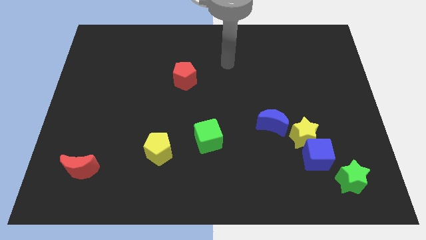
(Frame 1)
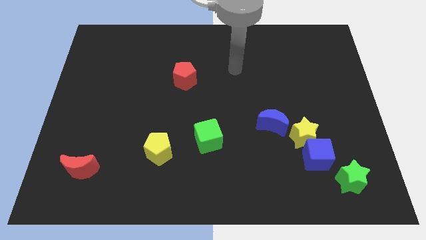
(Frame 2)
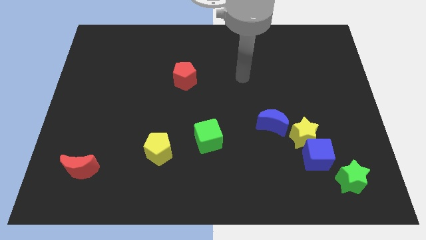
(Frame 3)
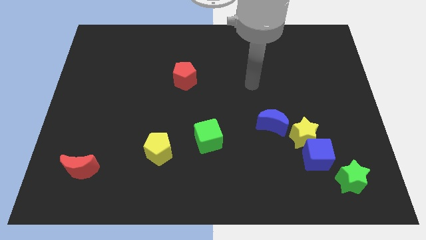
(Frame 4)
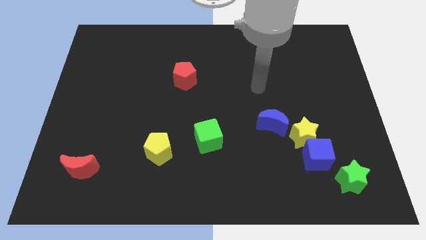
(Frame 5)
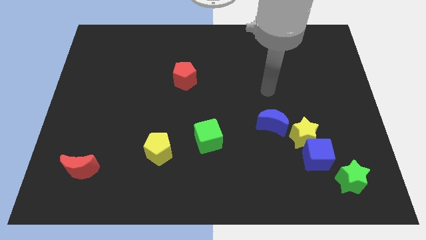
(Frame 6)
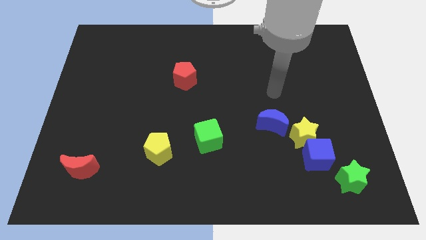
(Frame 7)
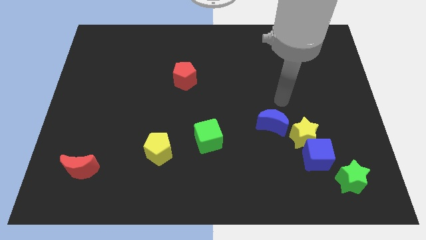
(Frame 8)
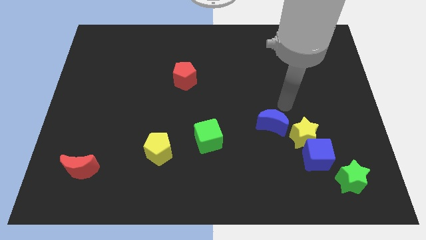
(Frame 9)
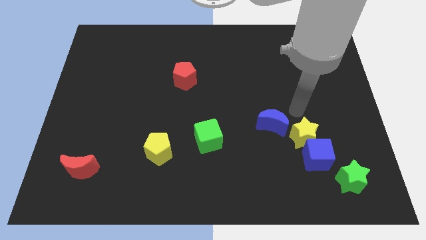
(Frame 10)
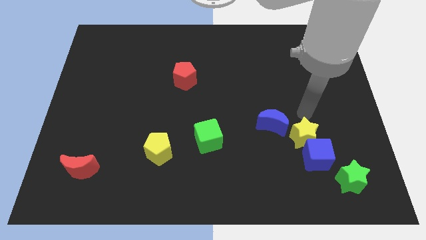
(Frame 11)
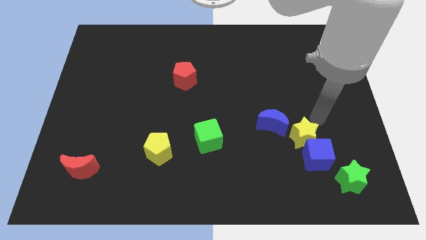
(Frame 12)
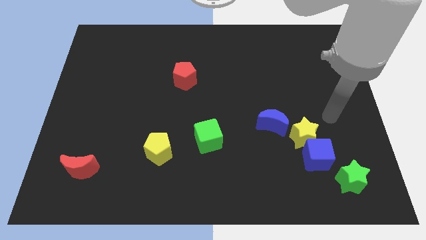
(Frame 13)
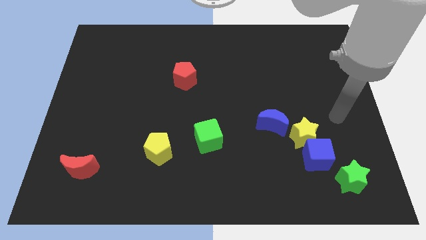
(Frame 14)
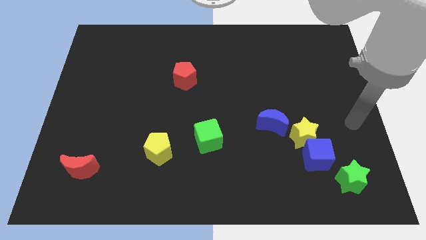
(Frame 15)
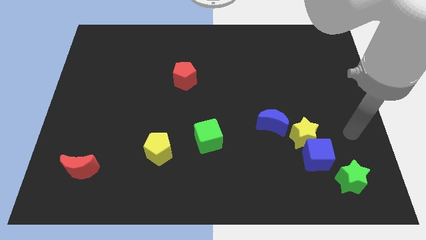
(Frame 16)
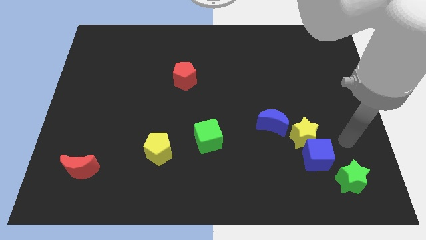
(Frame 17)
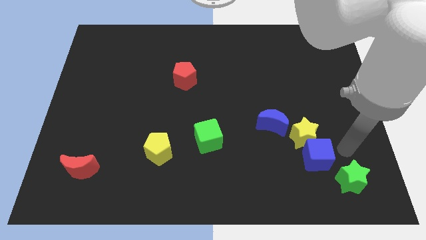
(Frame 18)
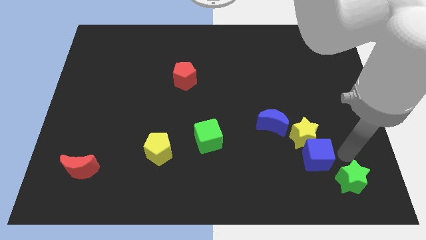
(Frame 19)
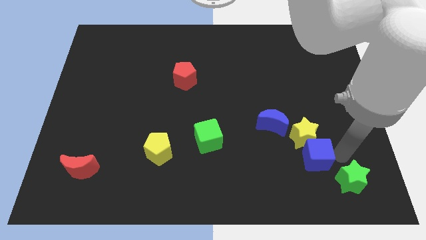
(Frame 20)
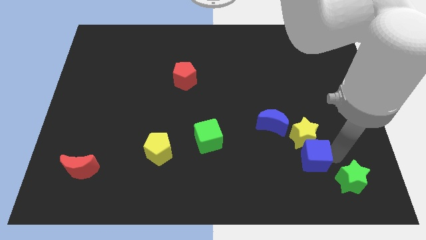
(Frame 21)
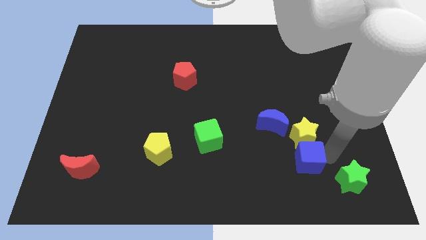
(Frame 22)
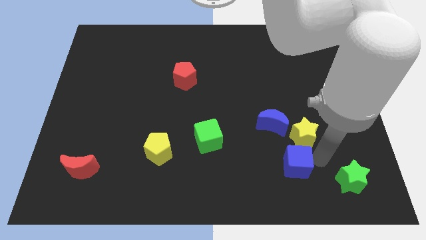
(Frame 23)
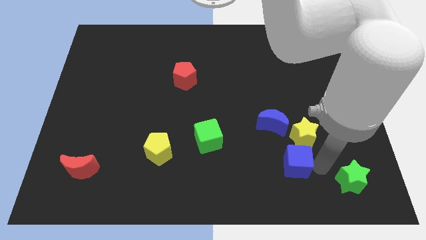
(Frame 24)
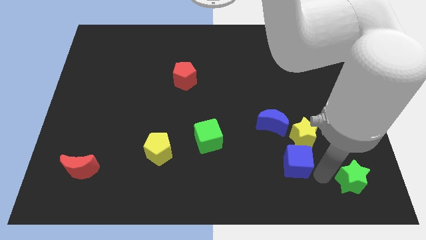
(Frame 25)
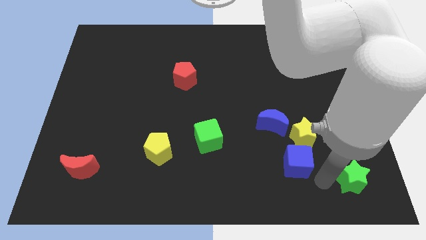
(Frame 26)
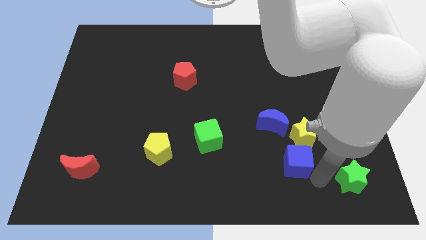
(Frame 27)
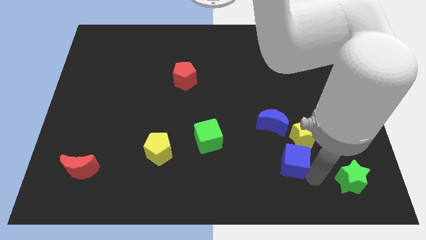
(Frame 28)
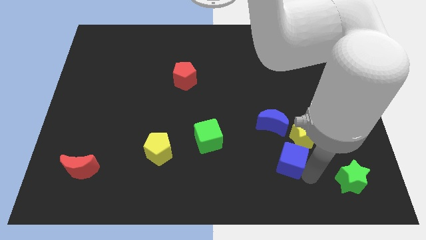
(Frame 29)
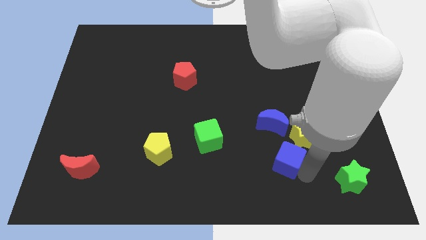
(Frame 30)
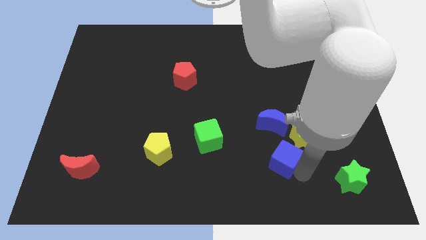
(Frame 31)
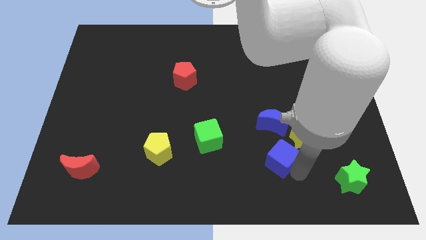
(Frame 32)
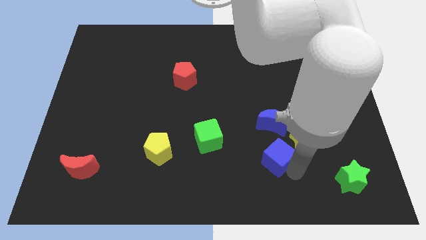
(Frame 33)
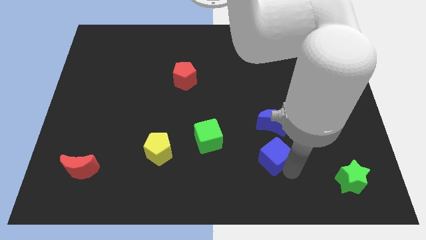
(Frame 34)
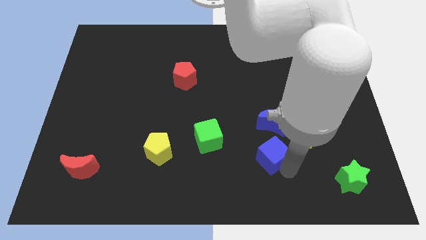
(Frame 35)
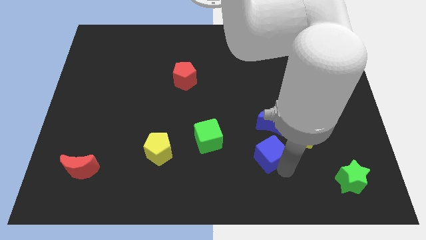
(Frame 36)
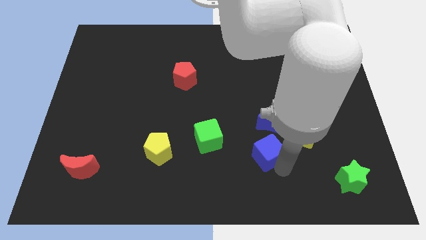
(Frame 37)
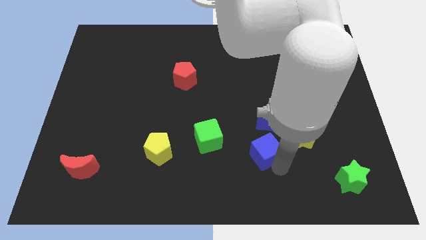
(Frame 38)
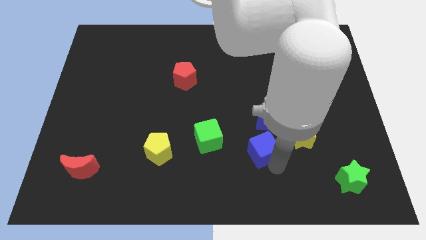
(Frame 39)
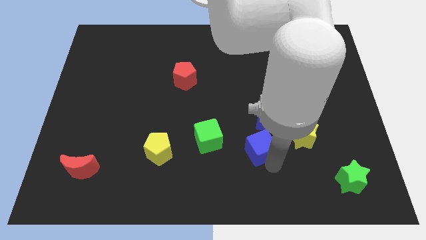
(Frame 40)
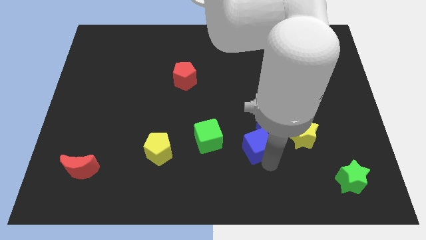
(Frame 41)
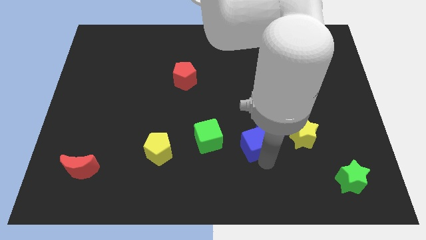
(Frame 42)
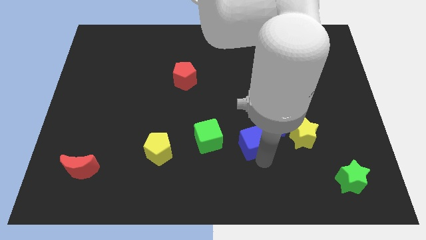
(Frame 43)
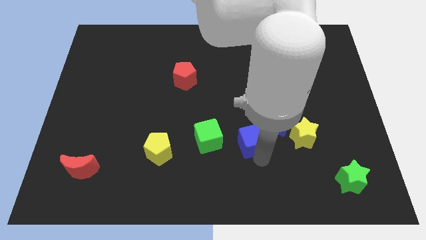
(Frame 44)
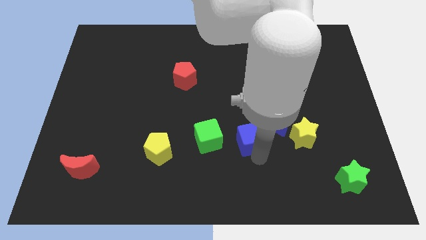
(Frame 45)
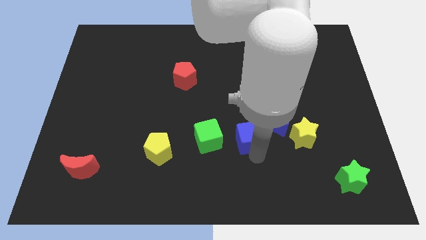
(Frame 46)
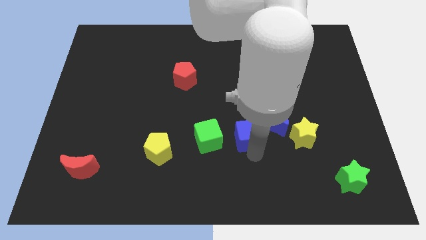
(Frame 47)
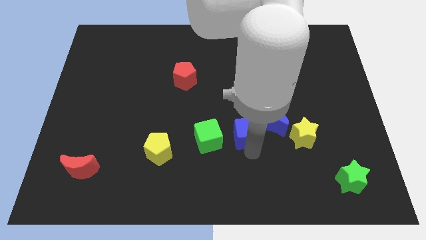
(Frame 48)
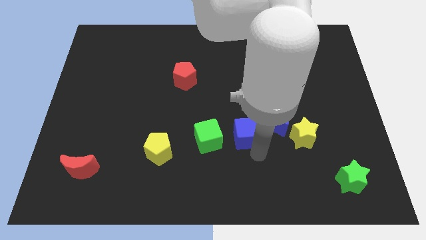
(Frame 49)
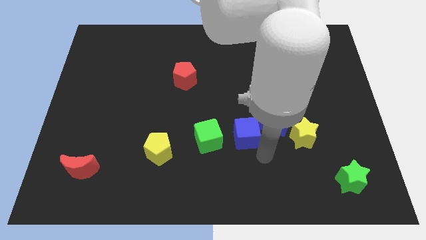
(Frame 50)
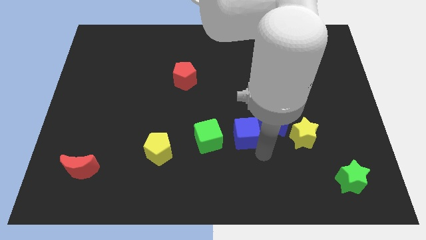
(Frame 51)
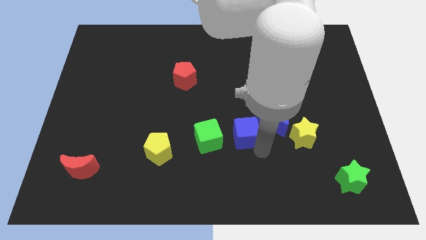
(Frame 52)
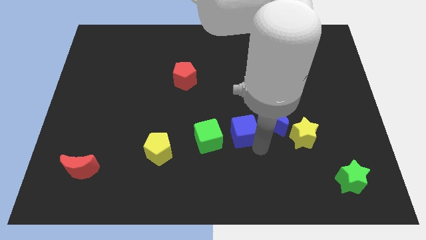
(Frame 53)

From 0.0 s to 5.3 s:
put the blue cube diagonally up and to the right of the green cube

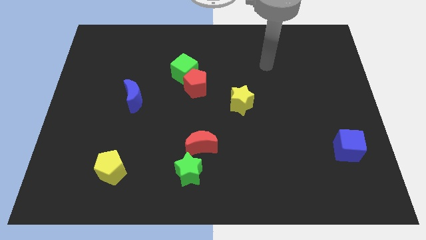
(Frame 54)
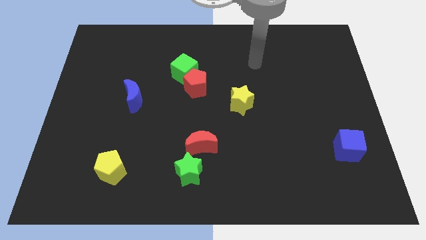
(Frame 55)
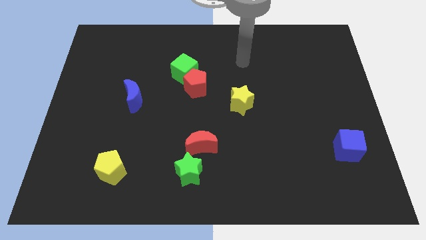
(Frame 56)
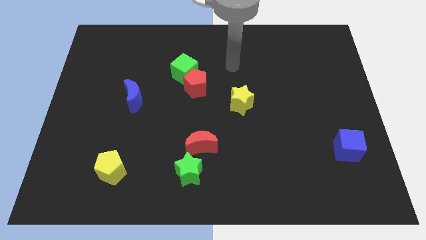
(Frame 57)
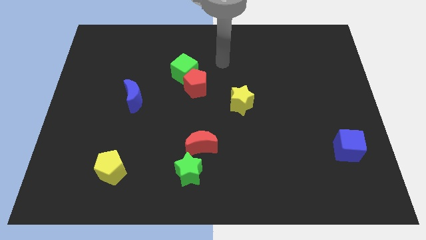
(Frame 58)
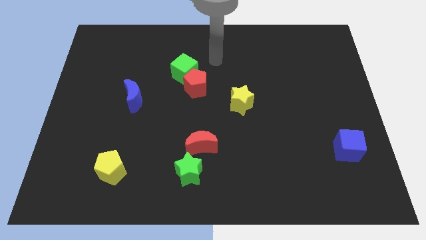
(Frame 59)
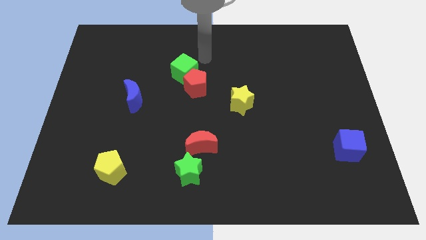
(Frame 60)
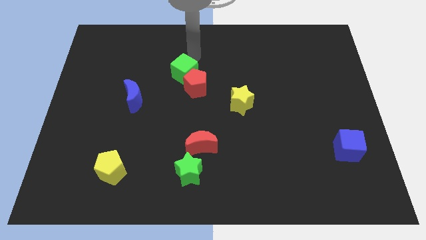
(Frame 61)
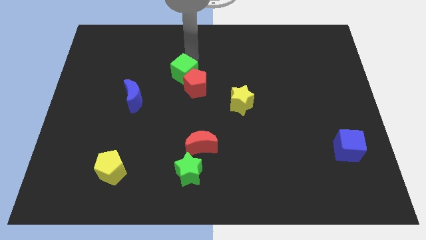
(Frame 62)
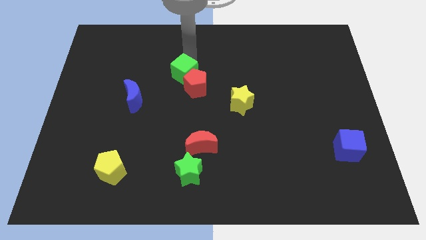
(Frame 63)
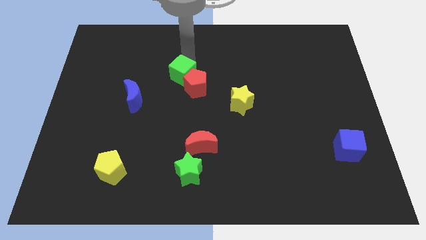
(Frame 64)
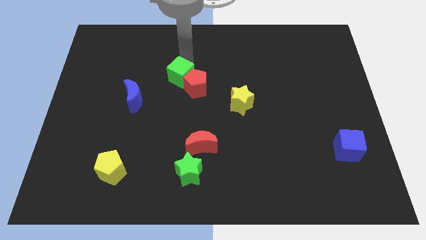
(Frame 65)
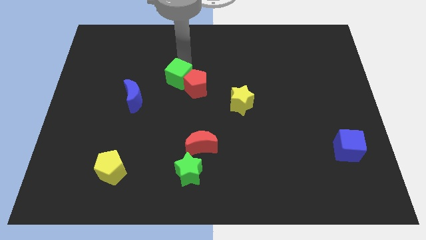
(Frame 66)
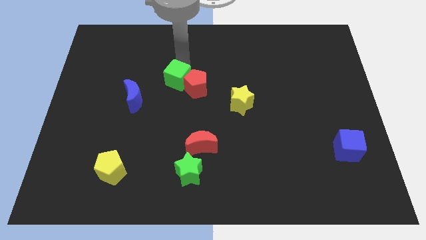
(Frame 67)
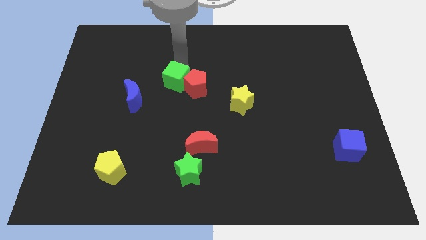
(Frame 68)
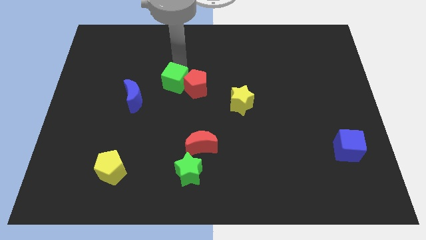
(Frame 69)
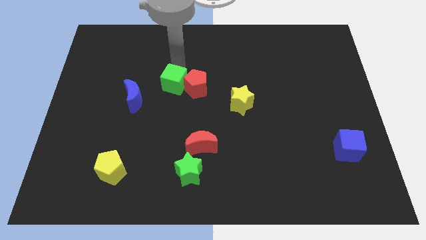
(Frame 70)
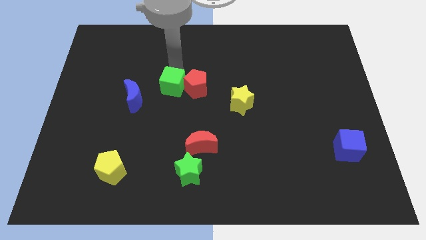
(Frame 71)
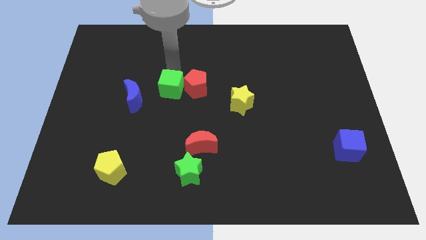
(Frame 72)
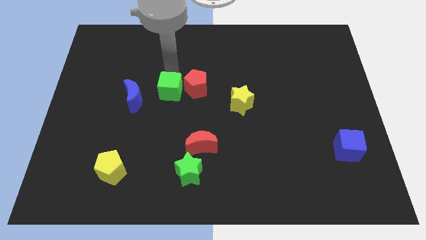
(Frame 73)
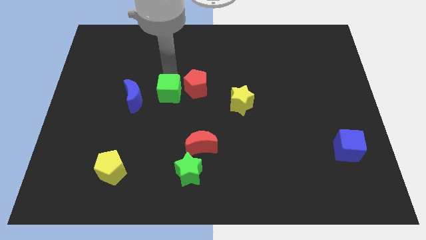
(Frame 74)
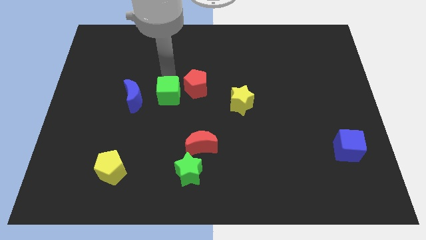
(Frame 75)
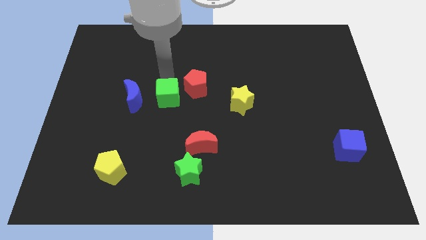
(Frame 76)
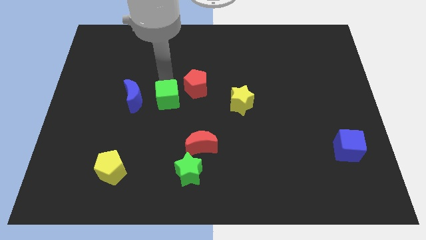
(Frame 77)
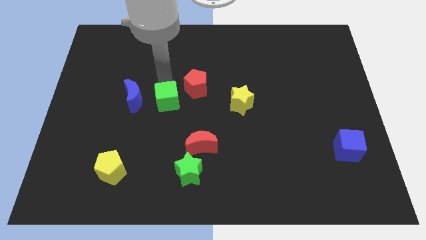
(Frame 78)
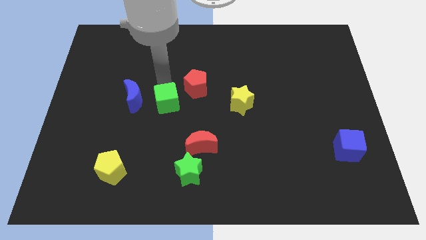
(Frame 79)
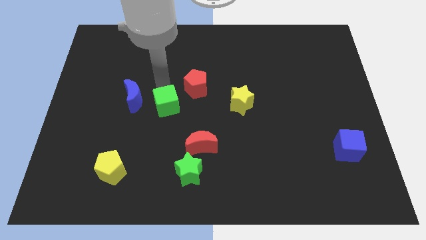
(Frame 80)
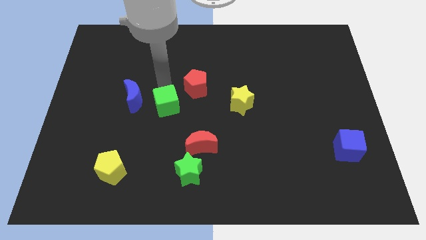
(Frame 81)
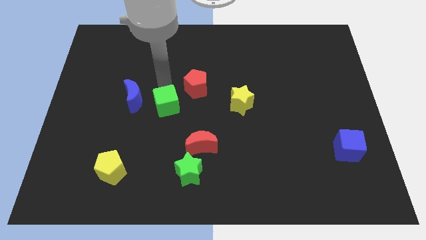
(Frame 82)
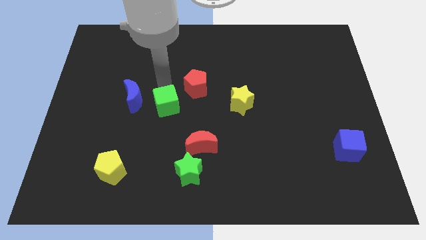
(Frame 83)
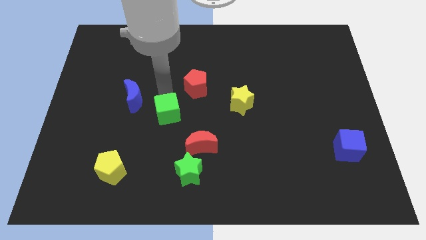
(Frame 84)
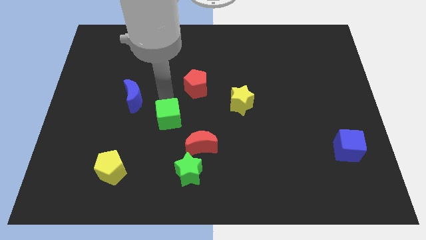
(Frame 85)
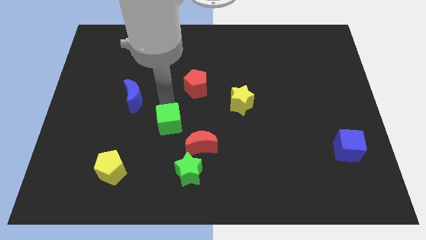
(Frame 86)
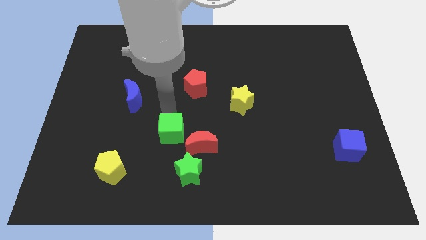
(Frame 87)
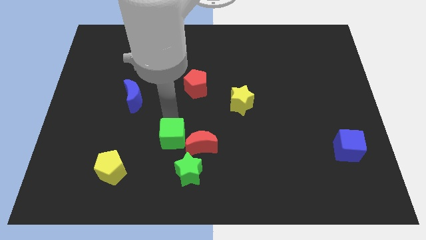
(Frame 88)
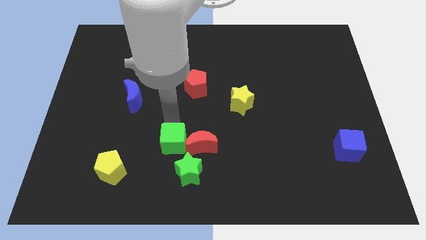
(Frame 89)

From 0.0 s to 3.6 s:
move the green cube to the bottom left of the red moon
